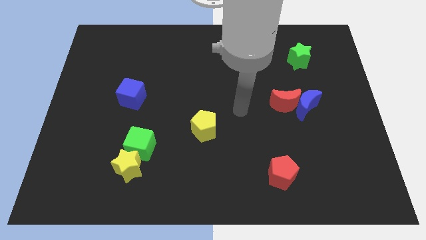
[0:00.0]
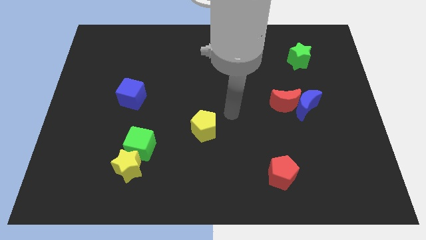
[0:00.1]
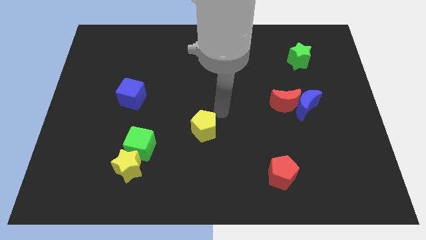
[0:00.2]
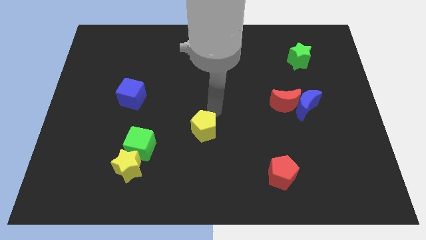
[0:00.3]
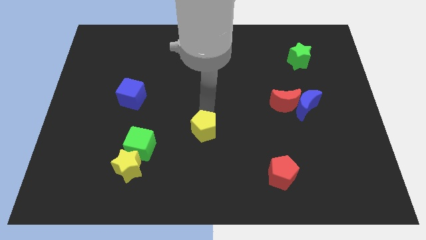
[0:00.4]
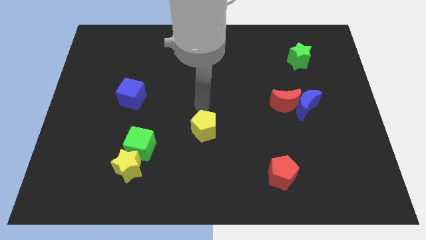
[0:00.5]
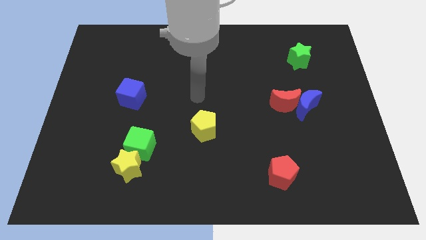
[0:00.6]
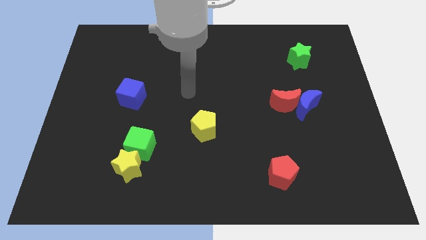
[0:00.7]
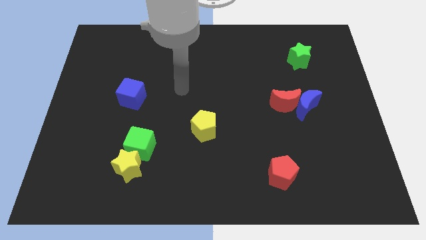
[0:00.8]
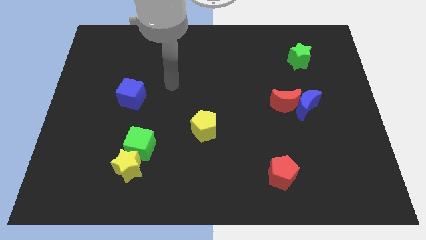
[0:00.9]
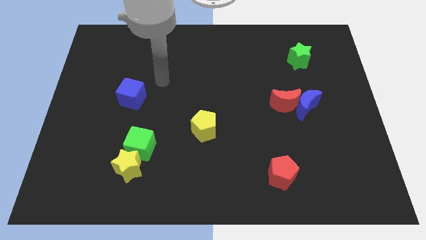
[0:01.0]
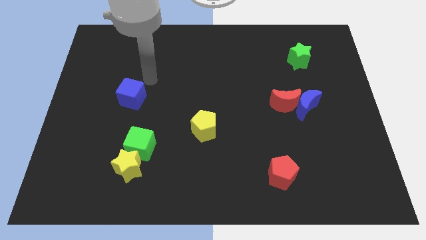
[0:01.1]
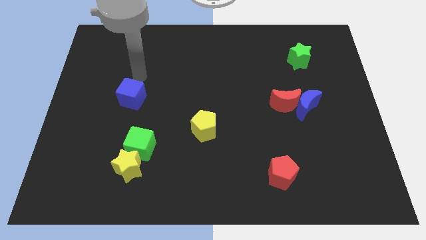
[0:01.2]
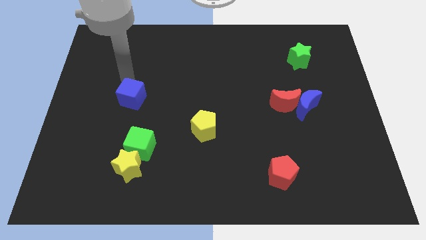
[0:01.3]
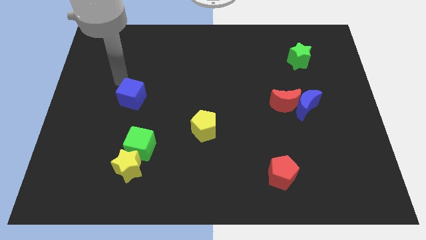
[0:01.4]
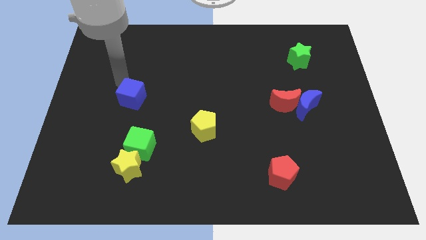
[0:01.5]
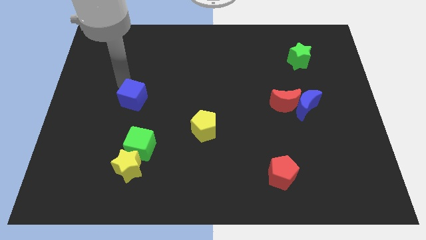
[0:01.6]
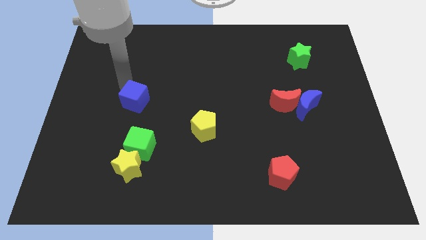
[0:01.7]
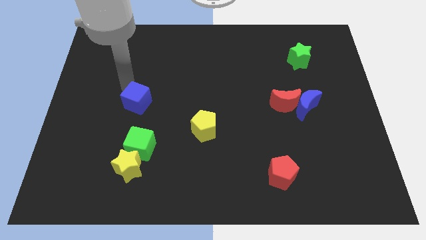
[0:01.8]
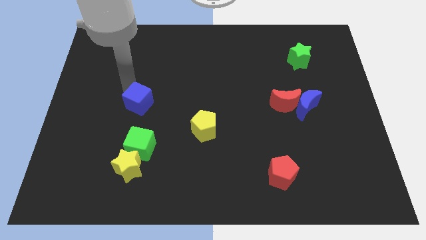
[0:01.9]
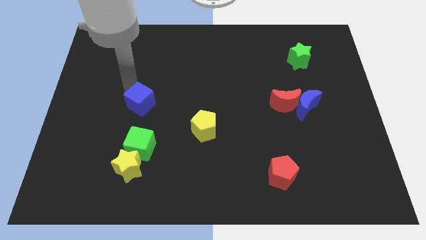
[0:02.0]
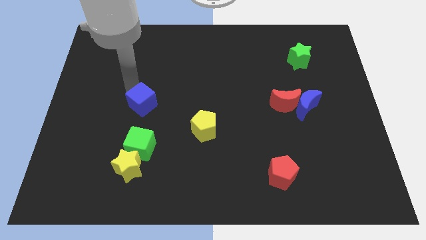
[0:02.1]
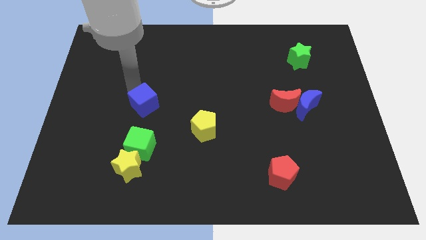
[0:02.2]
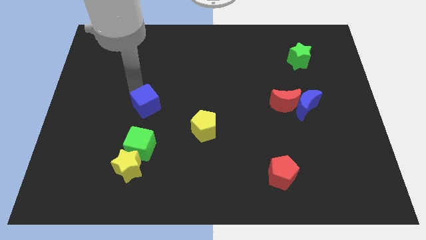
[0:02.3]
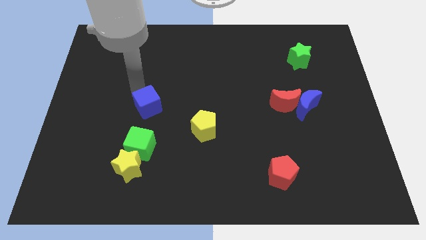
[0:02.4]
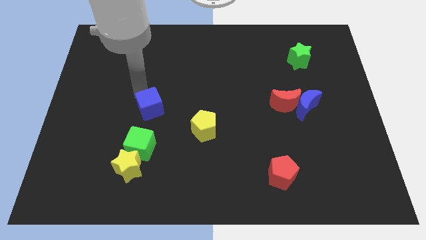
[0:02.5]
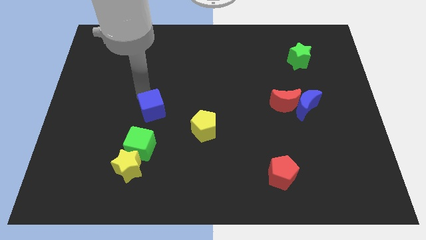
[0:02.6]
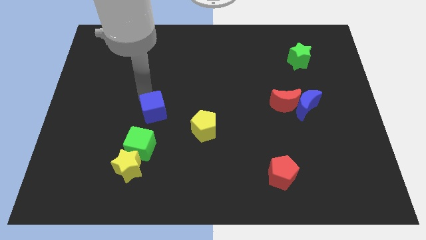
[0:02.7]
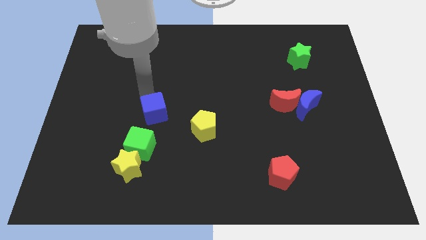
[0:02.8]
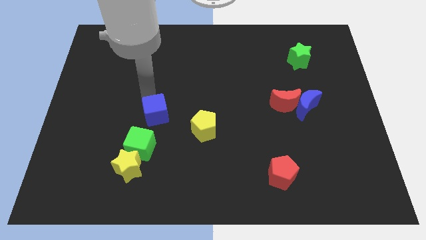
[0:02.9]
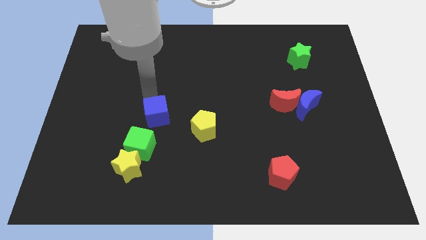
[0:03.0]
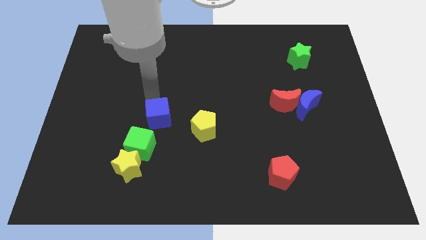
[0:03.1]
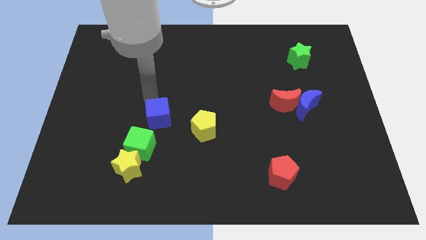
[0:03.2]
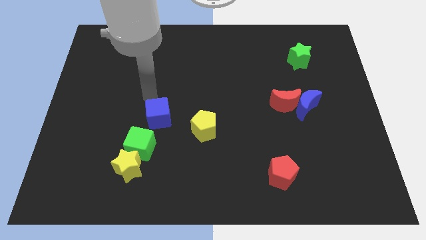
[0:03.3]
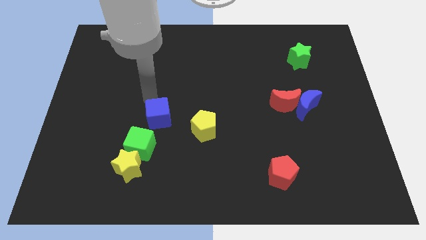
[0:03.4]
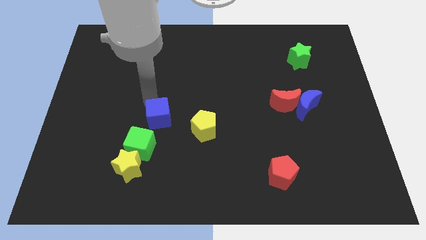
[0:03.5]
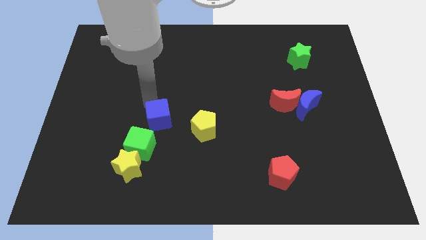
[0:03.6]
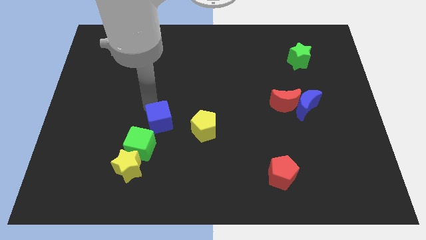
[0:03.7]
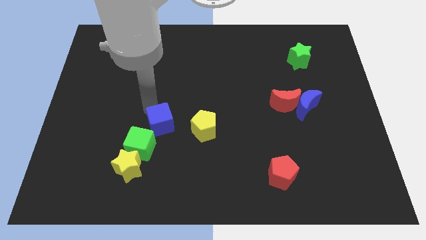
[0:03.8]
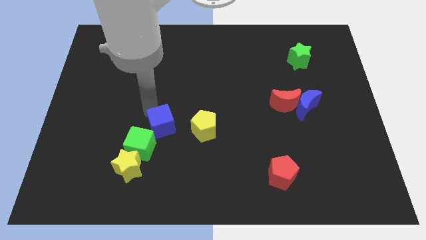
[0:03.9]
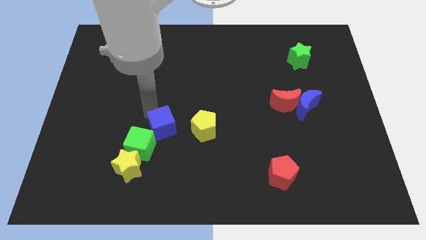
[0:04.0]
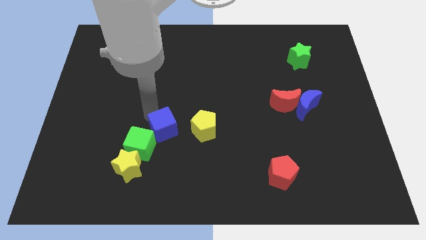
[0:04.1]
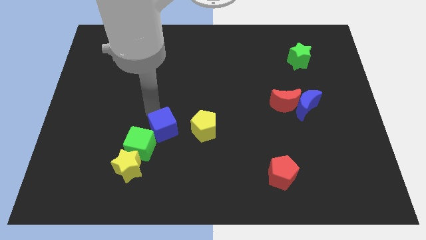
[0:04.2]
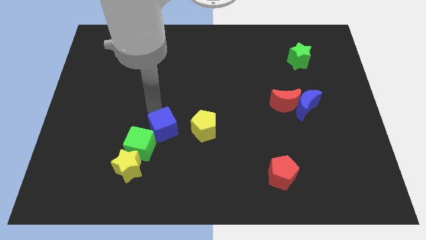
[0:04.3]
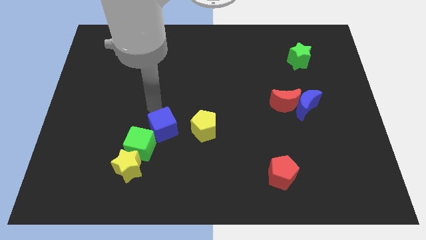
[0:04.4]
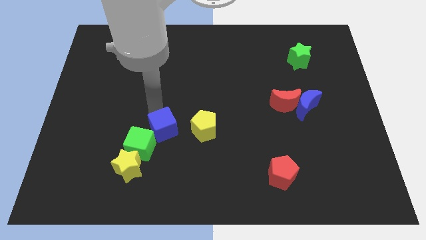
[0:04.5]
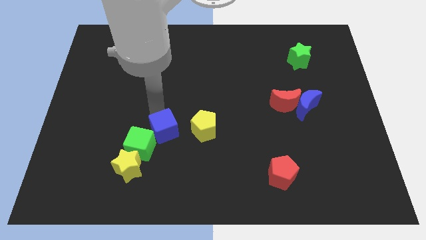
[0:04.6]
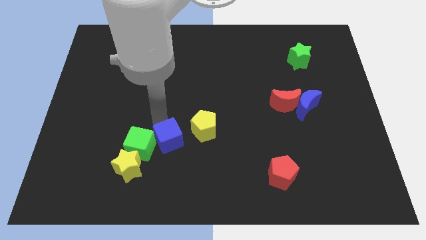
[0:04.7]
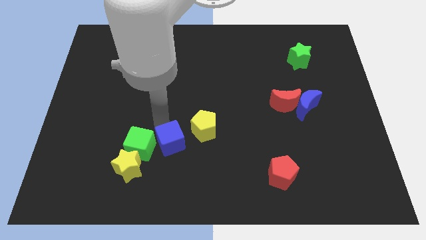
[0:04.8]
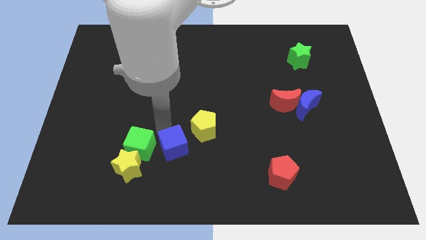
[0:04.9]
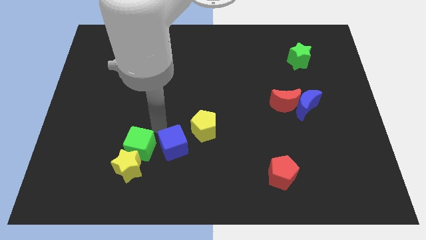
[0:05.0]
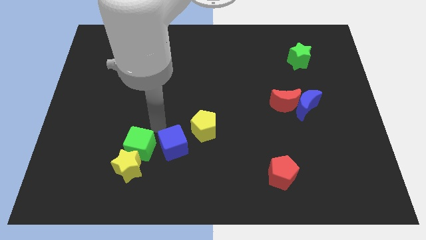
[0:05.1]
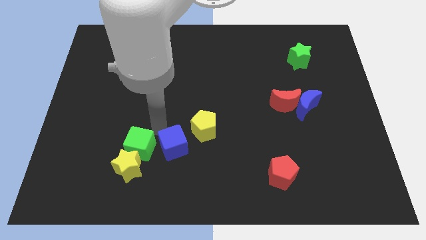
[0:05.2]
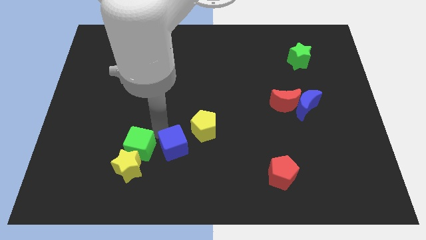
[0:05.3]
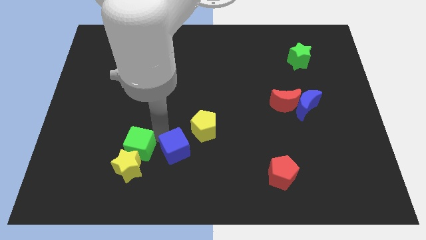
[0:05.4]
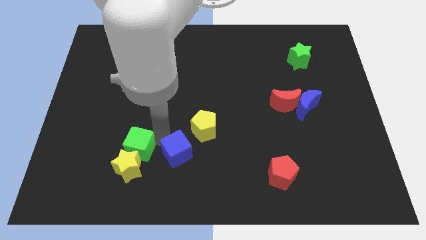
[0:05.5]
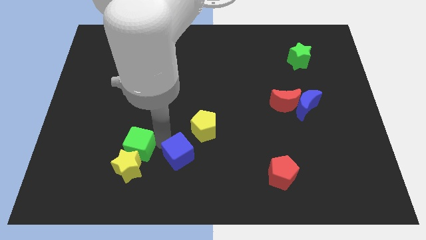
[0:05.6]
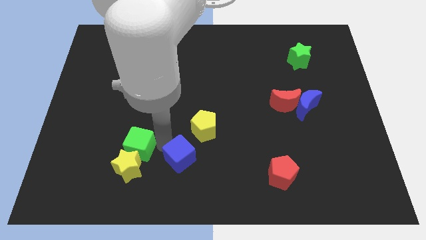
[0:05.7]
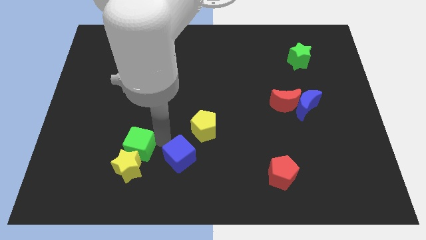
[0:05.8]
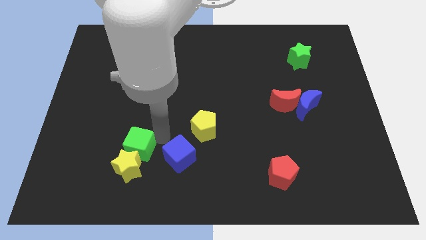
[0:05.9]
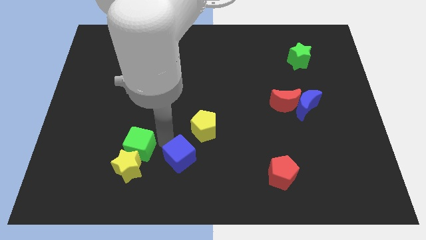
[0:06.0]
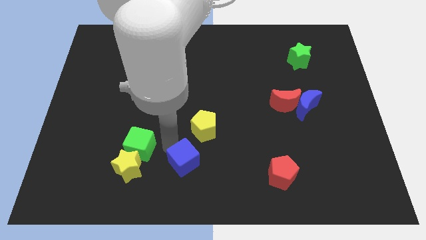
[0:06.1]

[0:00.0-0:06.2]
push the blue cube to the bottom
